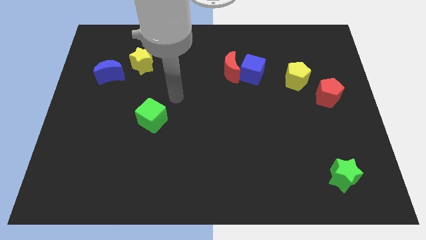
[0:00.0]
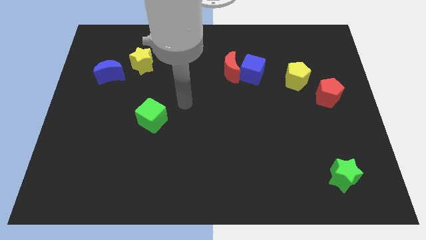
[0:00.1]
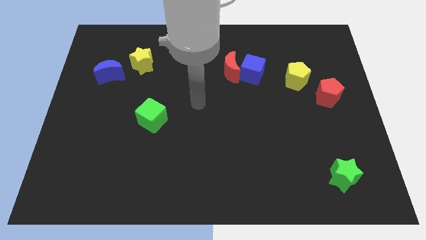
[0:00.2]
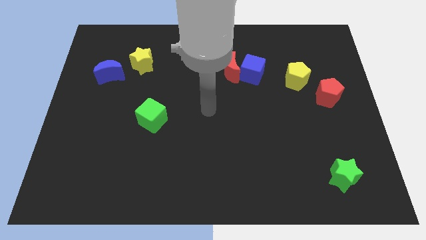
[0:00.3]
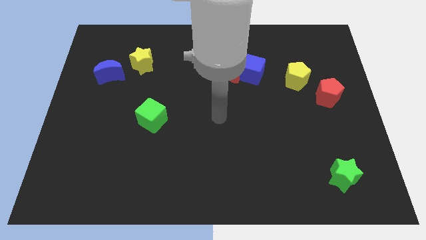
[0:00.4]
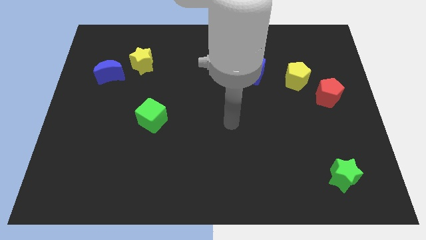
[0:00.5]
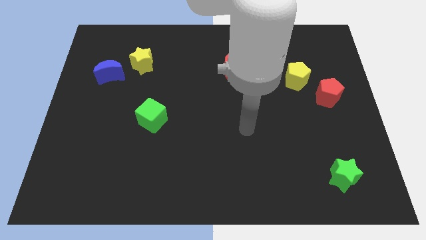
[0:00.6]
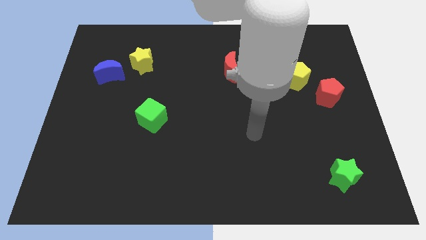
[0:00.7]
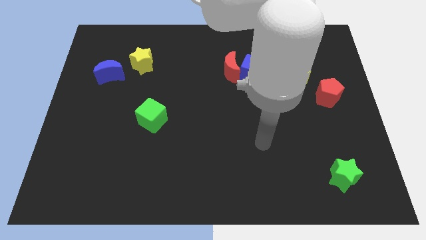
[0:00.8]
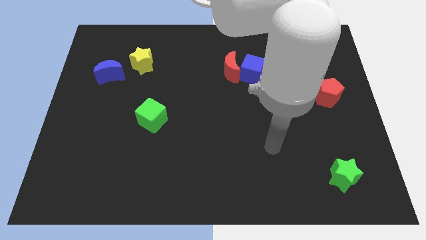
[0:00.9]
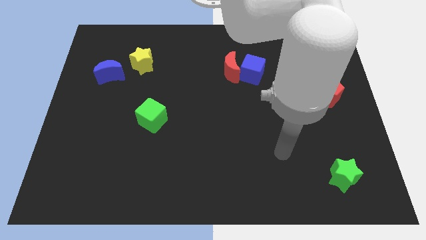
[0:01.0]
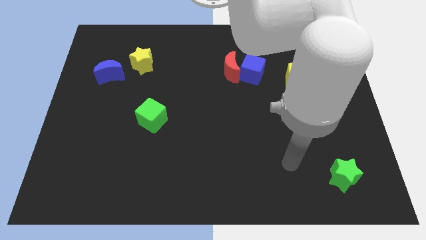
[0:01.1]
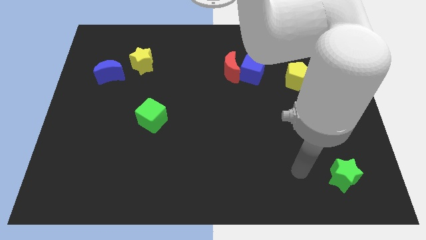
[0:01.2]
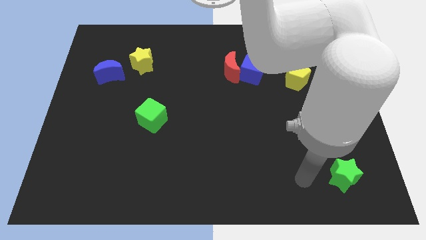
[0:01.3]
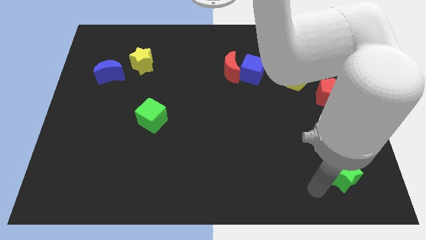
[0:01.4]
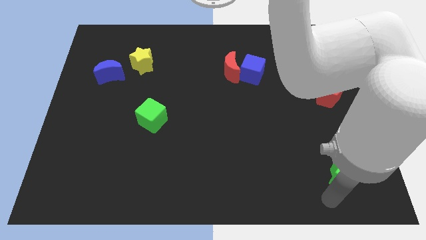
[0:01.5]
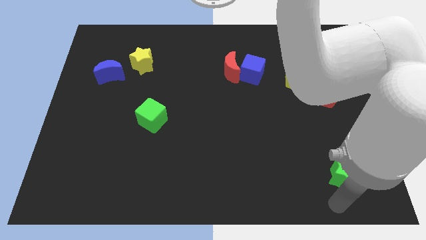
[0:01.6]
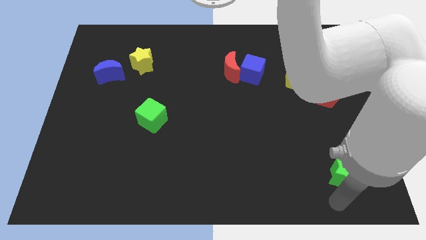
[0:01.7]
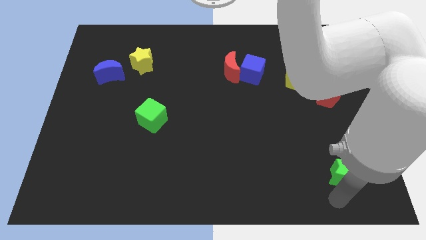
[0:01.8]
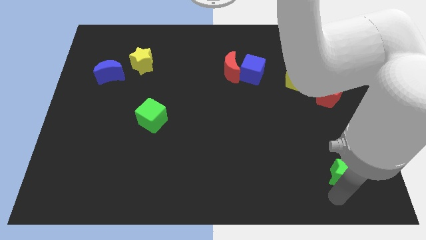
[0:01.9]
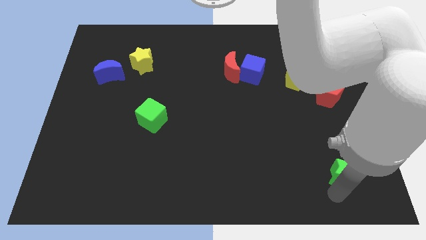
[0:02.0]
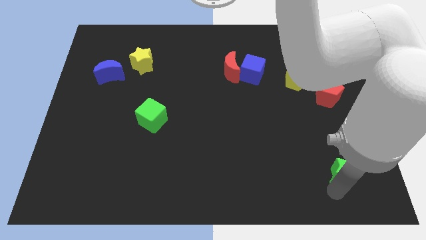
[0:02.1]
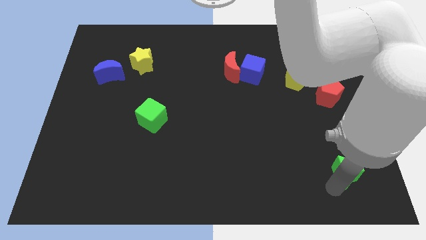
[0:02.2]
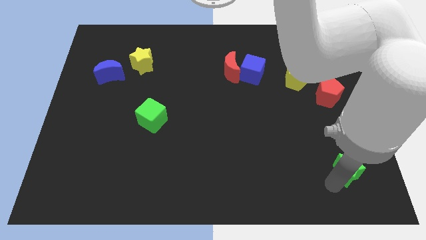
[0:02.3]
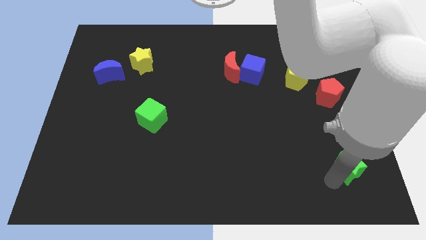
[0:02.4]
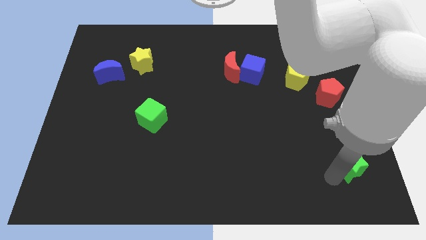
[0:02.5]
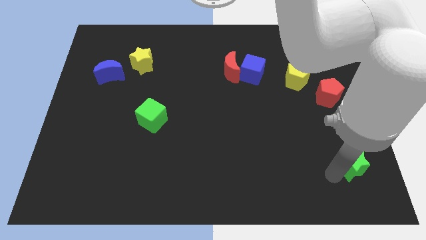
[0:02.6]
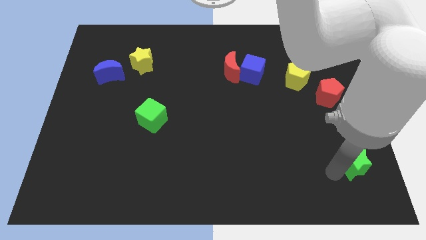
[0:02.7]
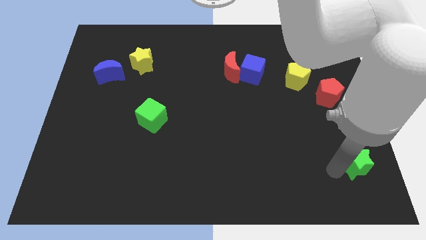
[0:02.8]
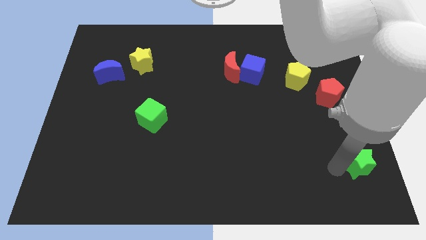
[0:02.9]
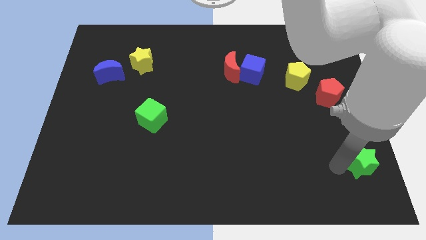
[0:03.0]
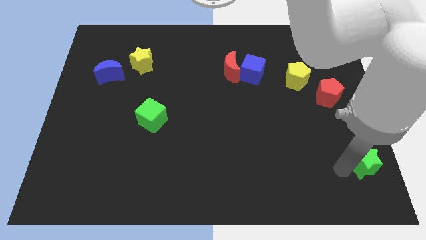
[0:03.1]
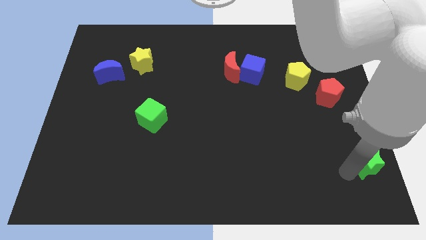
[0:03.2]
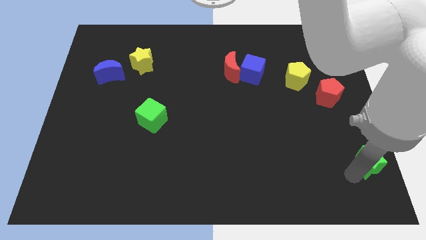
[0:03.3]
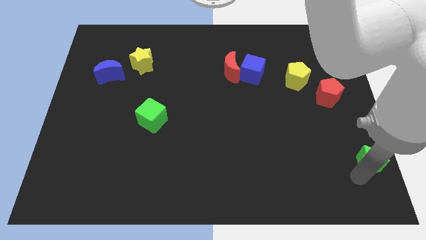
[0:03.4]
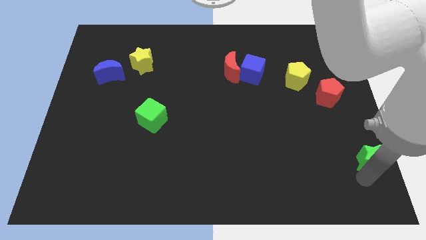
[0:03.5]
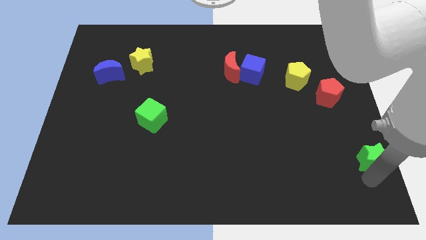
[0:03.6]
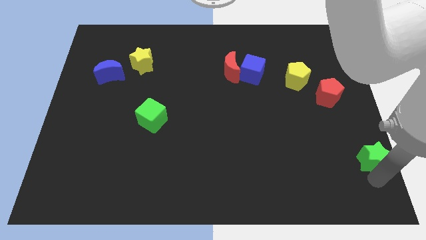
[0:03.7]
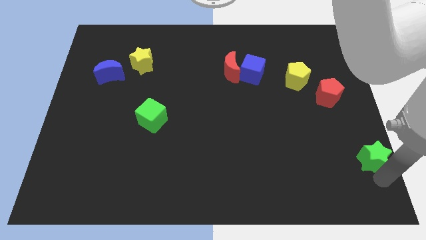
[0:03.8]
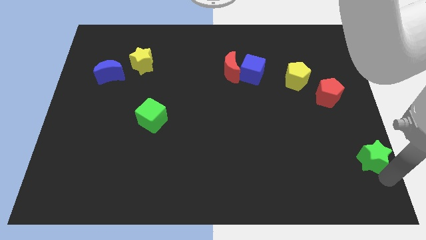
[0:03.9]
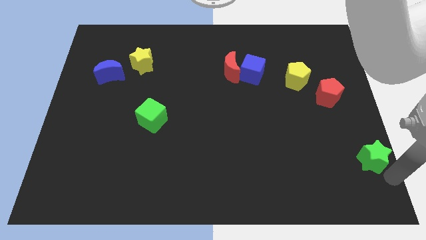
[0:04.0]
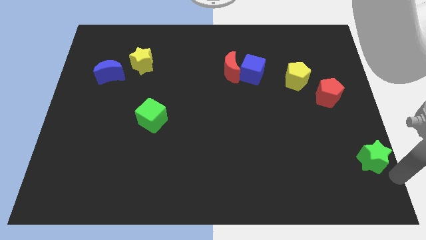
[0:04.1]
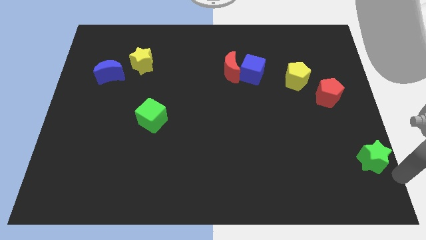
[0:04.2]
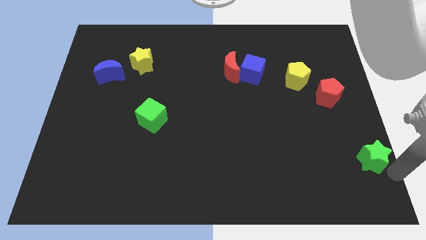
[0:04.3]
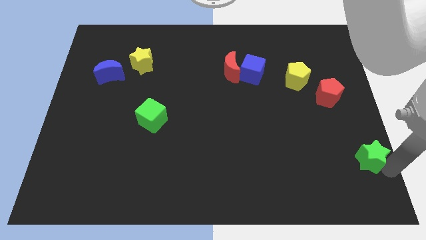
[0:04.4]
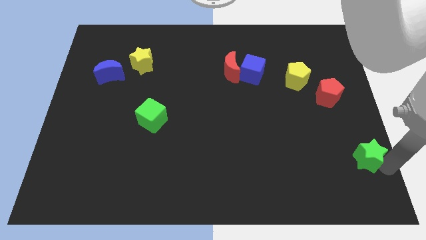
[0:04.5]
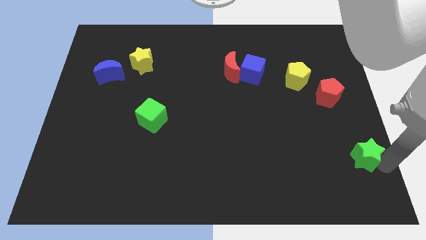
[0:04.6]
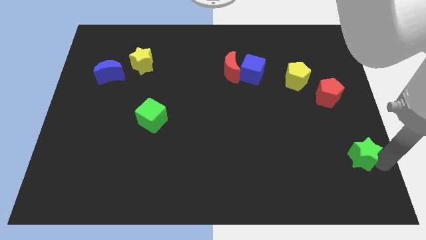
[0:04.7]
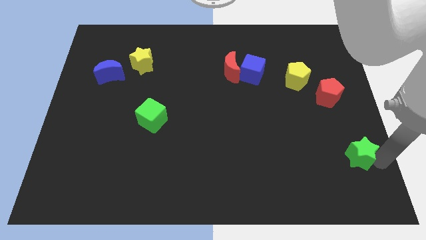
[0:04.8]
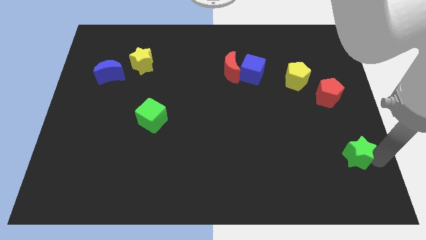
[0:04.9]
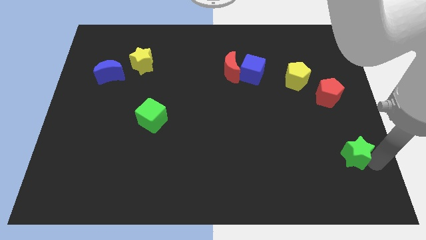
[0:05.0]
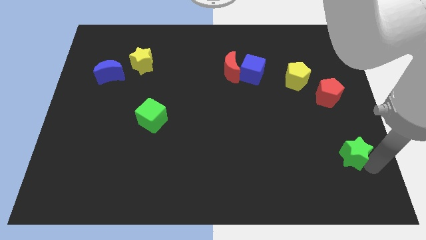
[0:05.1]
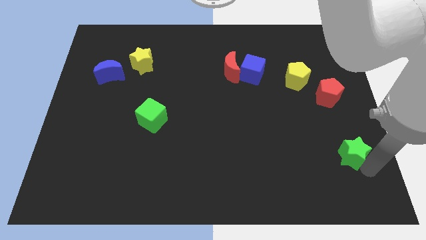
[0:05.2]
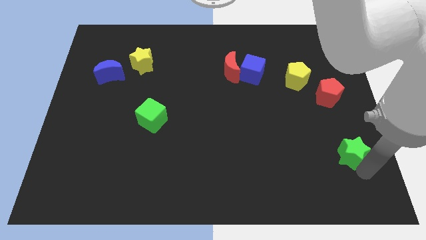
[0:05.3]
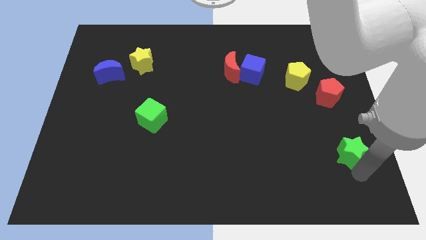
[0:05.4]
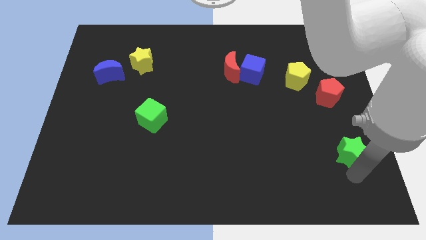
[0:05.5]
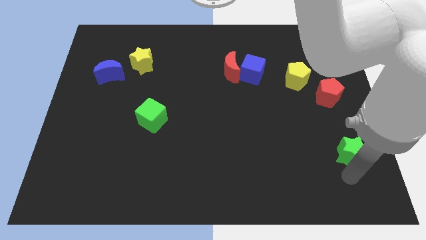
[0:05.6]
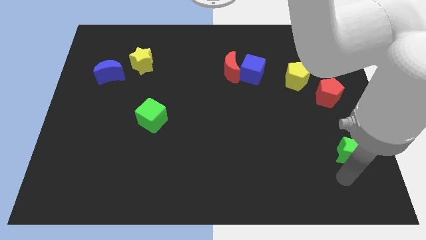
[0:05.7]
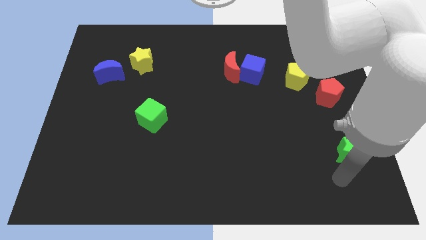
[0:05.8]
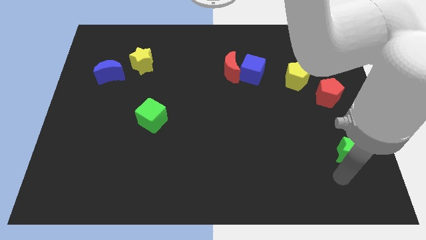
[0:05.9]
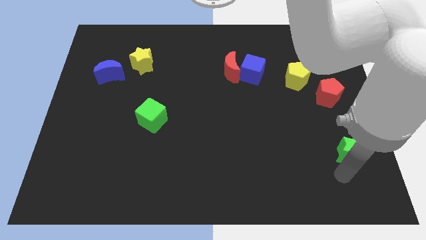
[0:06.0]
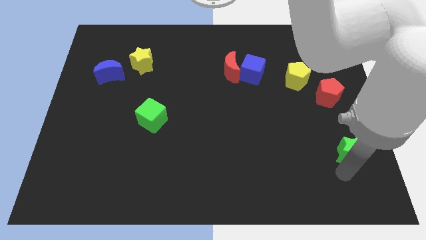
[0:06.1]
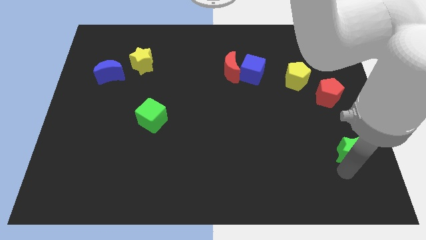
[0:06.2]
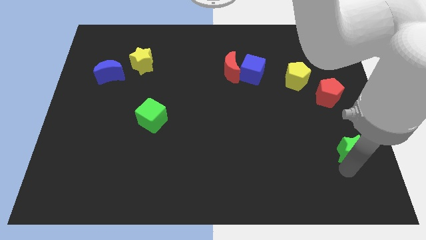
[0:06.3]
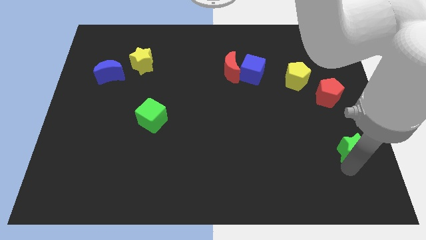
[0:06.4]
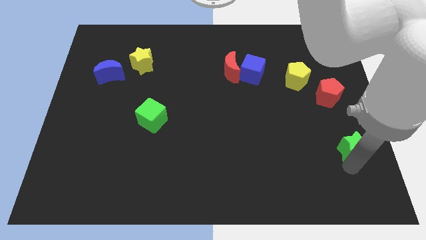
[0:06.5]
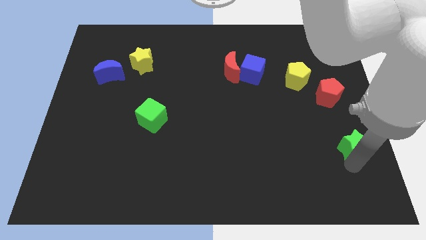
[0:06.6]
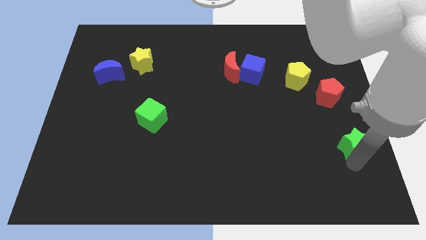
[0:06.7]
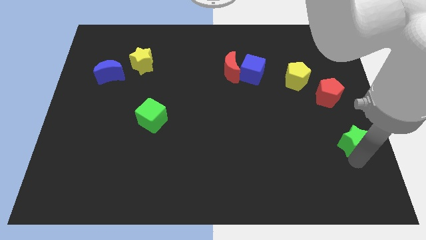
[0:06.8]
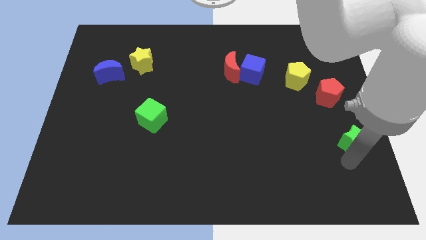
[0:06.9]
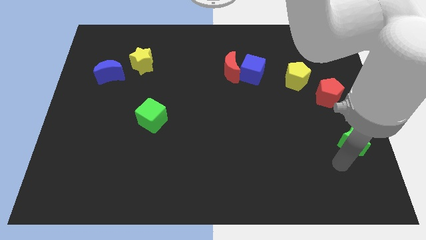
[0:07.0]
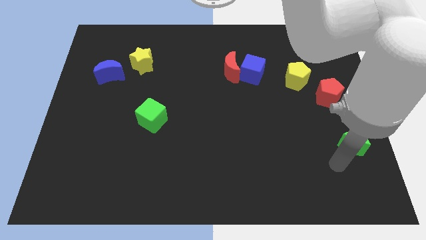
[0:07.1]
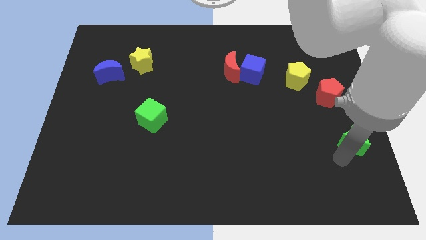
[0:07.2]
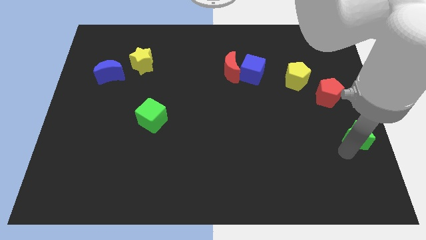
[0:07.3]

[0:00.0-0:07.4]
push the green star to the right side of the board

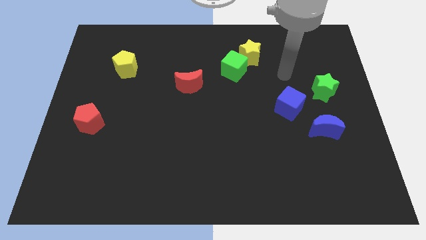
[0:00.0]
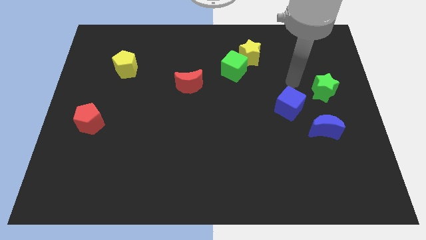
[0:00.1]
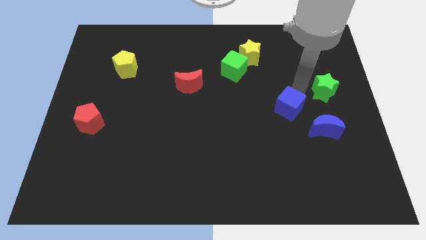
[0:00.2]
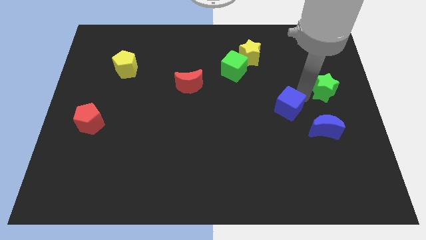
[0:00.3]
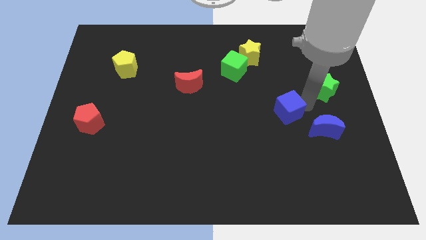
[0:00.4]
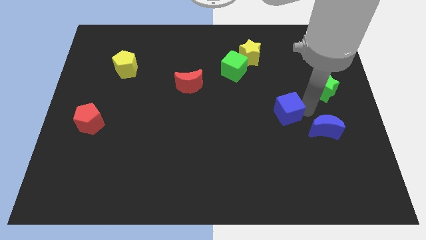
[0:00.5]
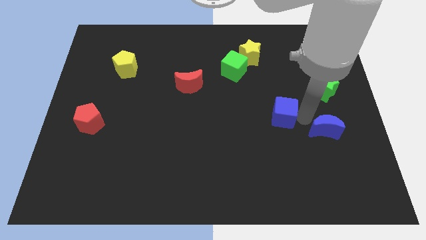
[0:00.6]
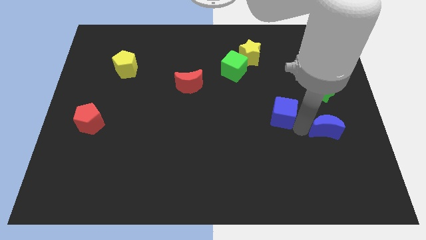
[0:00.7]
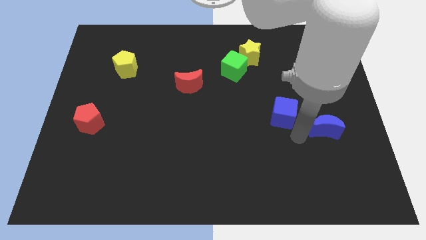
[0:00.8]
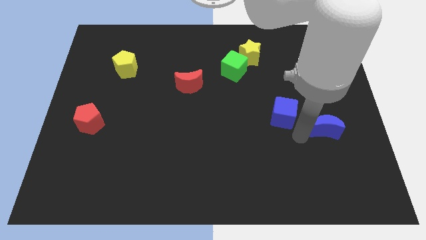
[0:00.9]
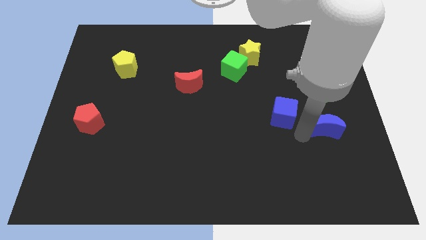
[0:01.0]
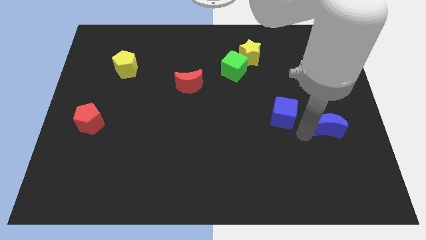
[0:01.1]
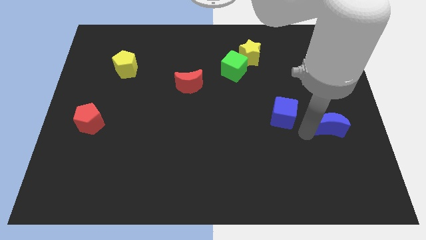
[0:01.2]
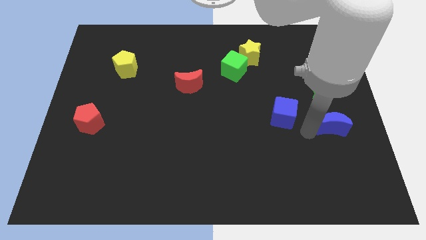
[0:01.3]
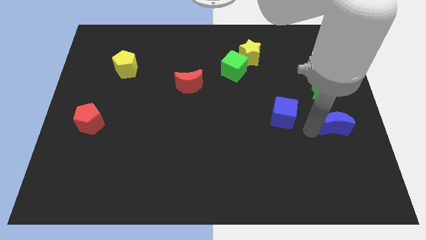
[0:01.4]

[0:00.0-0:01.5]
push the blue moon to the right side of the board
